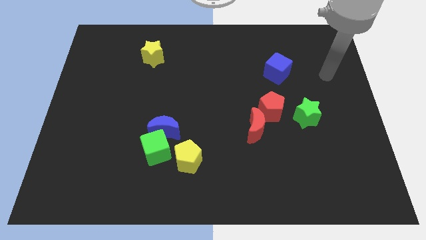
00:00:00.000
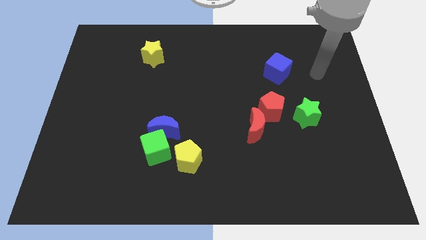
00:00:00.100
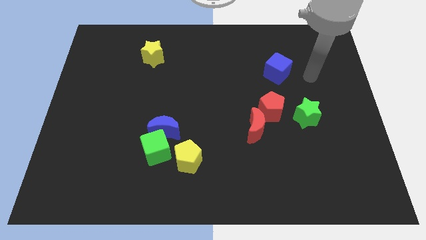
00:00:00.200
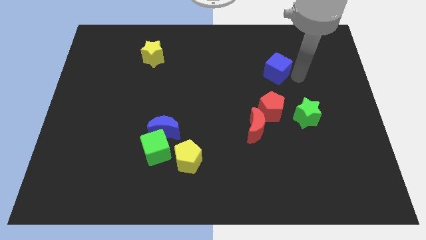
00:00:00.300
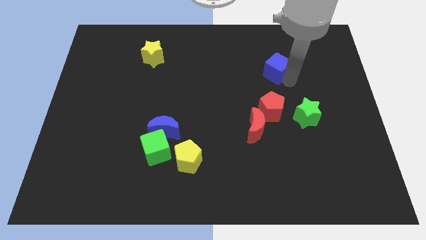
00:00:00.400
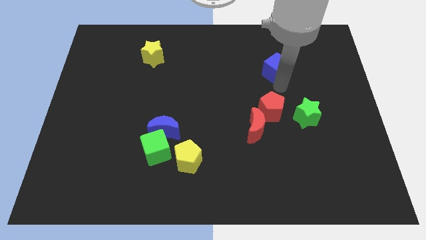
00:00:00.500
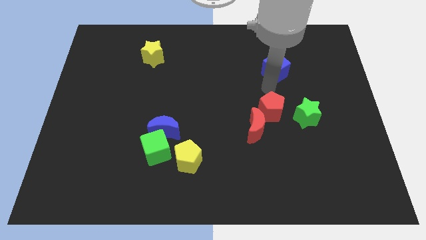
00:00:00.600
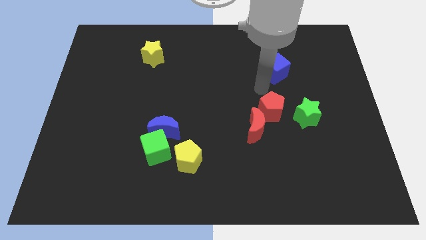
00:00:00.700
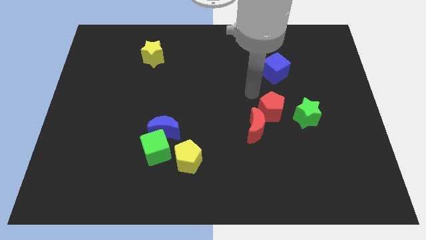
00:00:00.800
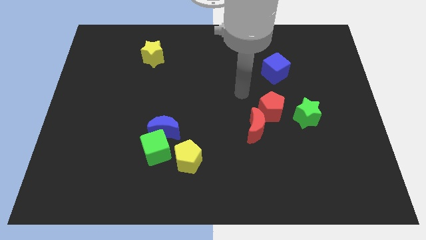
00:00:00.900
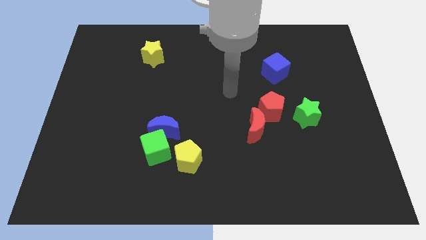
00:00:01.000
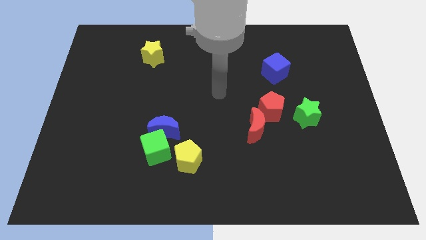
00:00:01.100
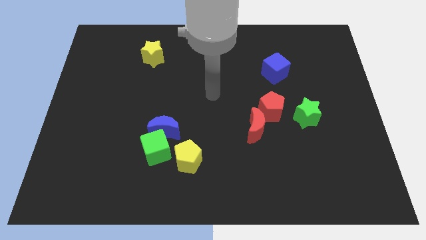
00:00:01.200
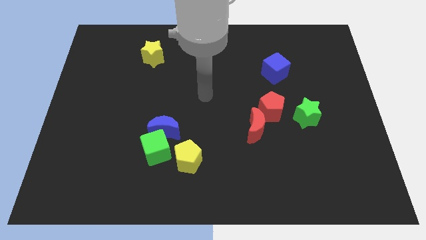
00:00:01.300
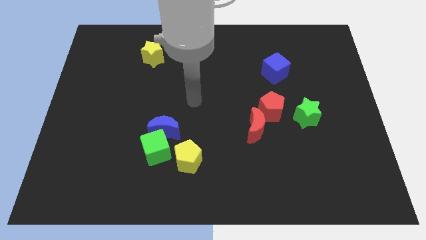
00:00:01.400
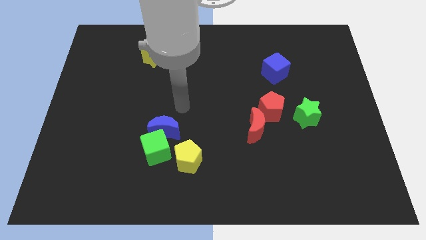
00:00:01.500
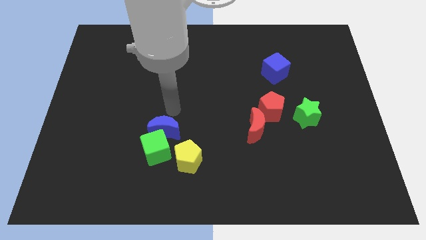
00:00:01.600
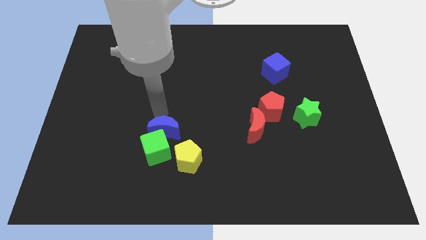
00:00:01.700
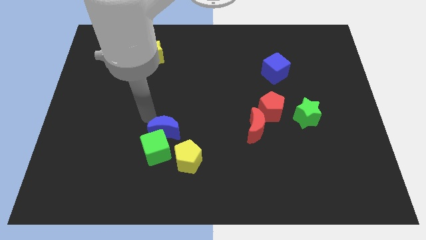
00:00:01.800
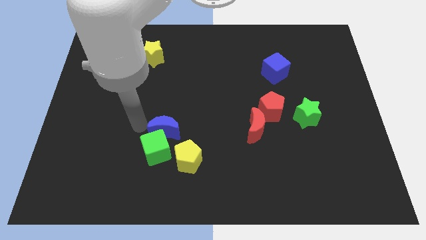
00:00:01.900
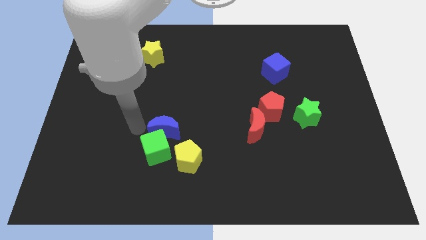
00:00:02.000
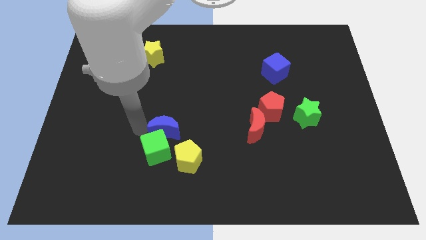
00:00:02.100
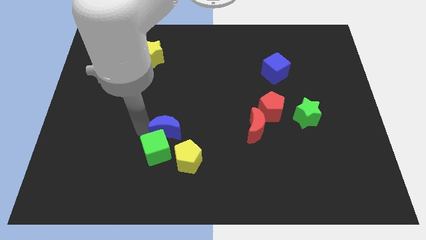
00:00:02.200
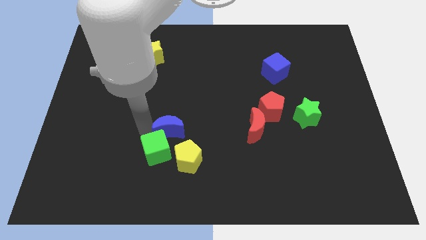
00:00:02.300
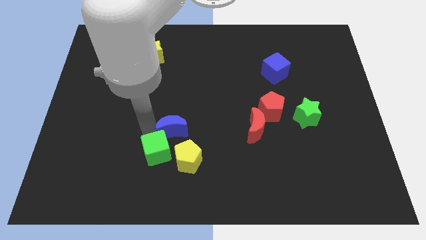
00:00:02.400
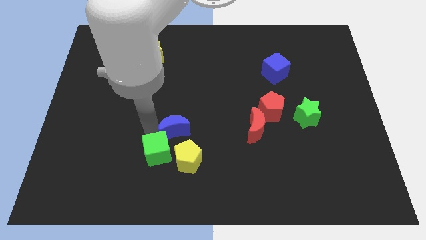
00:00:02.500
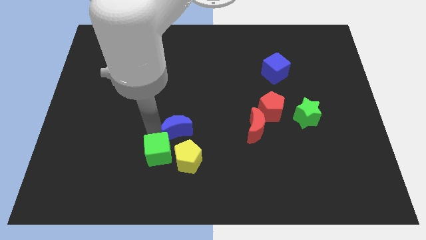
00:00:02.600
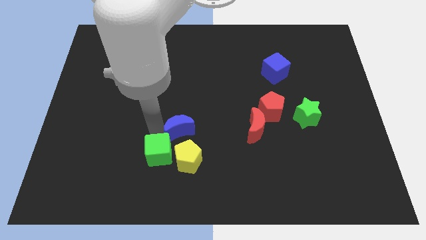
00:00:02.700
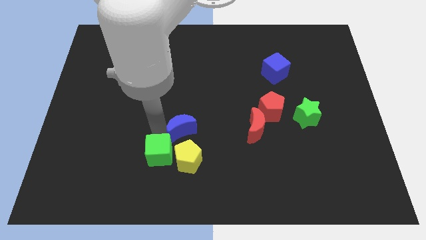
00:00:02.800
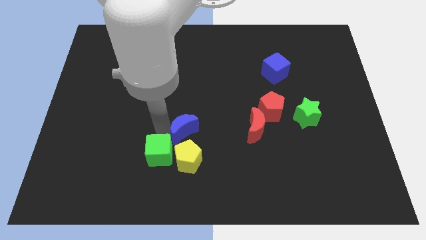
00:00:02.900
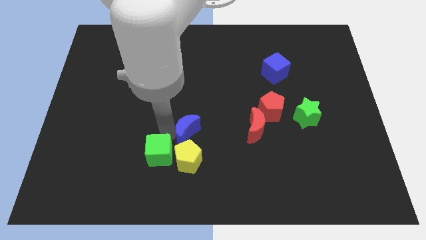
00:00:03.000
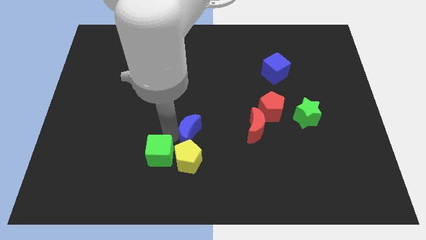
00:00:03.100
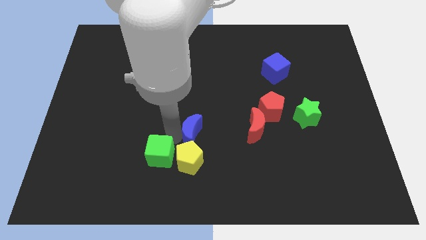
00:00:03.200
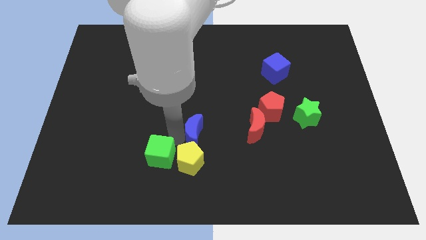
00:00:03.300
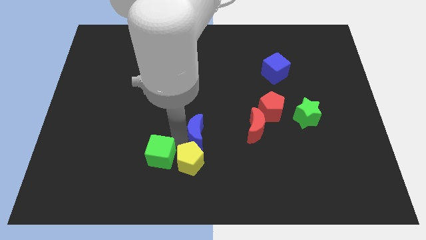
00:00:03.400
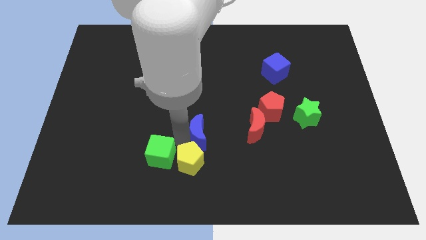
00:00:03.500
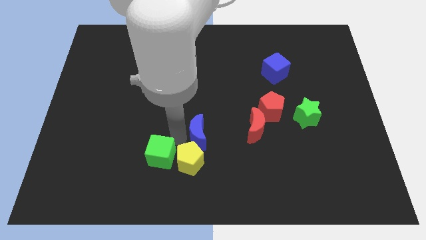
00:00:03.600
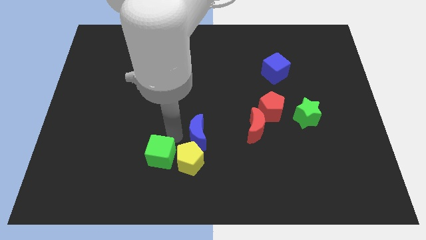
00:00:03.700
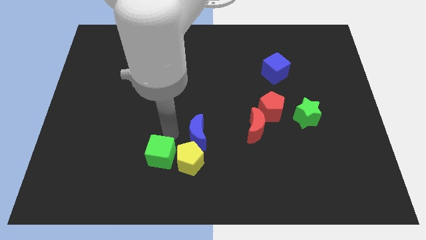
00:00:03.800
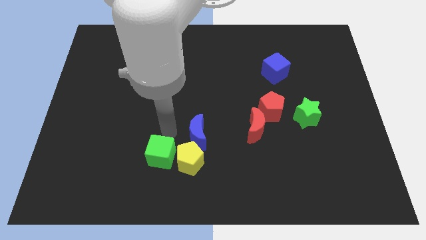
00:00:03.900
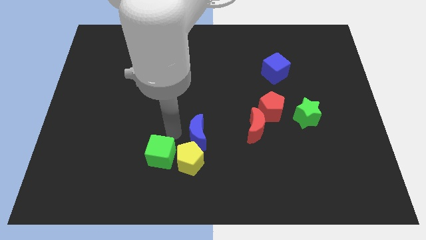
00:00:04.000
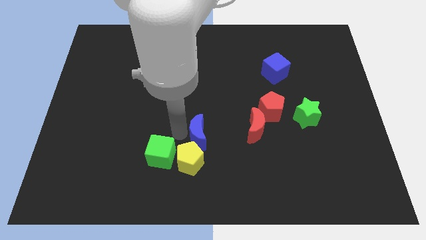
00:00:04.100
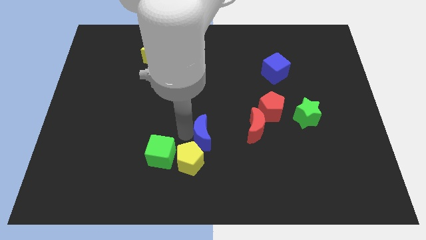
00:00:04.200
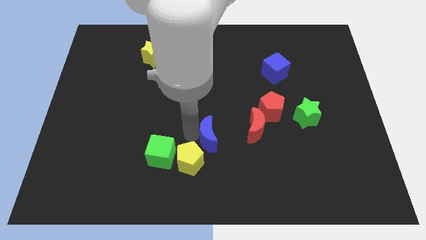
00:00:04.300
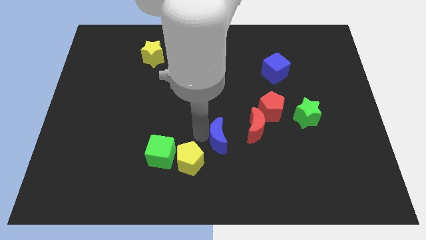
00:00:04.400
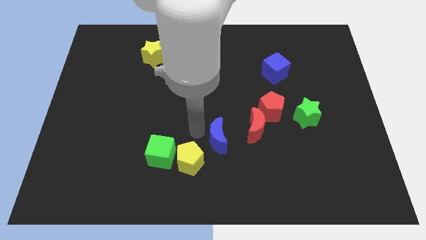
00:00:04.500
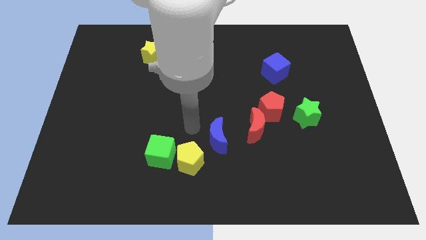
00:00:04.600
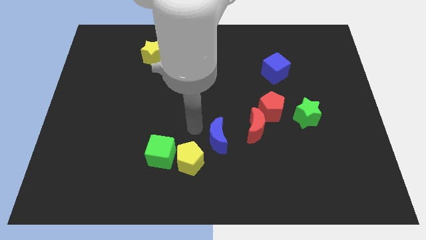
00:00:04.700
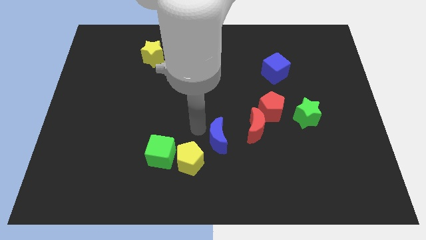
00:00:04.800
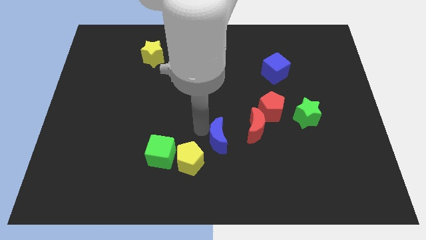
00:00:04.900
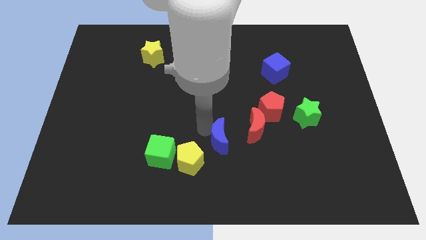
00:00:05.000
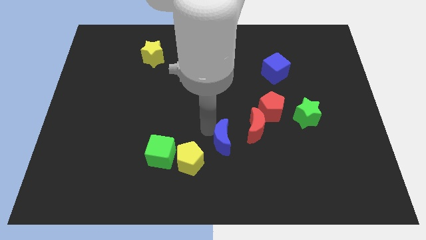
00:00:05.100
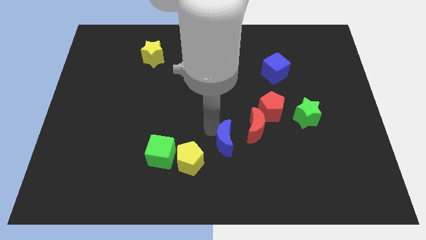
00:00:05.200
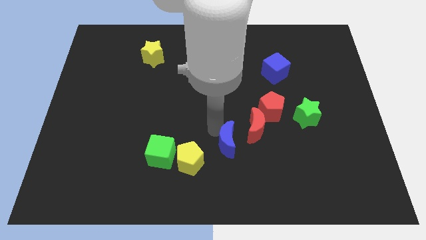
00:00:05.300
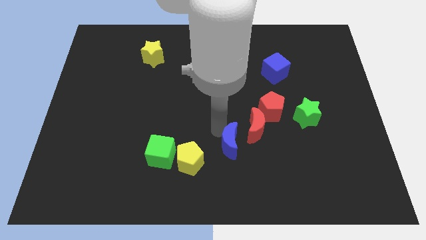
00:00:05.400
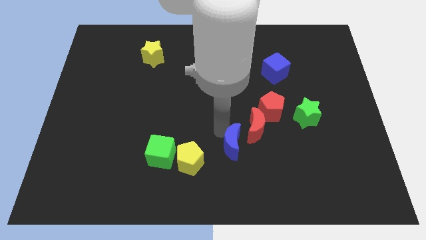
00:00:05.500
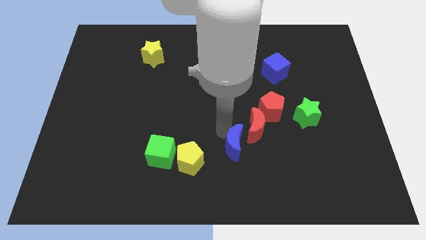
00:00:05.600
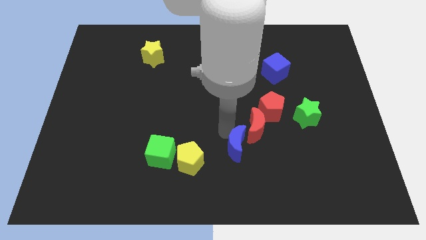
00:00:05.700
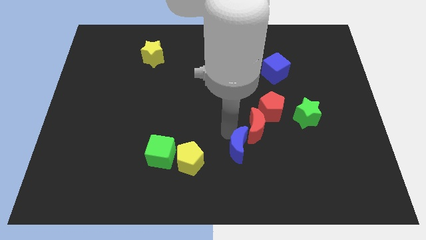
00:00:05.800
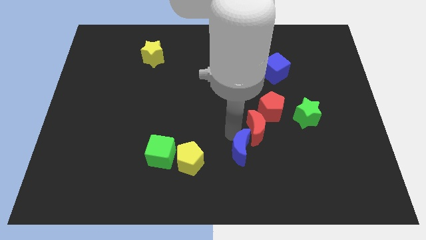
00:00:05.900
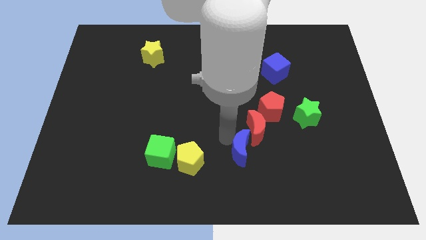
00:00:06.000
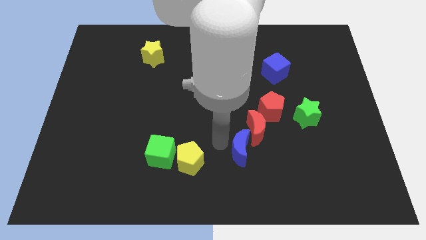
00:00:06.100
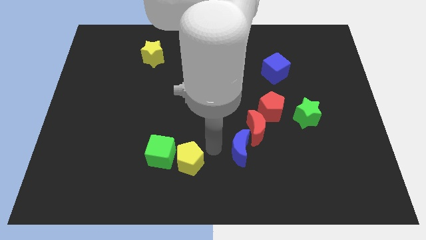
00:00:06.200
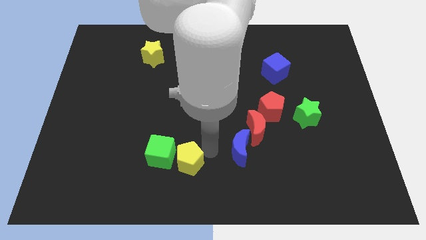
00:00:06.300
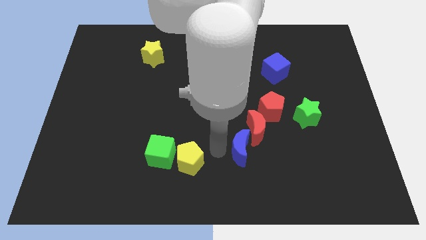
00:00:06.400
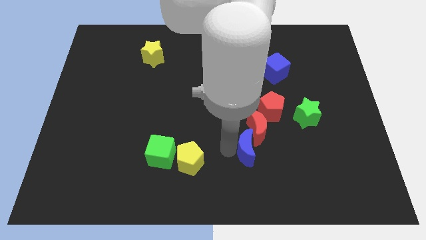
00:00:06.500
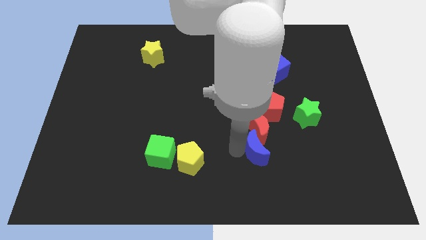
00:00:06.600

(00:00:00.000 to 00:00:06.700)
move the blue moon to the bottom of the red pentagon
